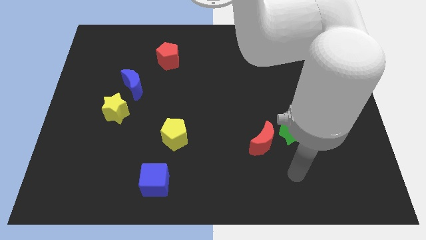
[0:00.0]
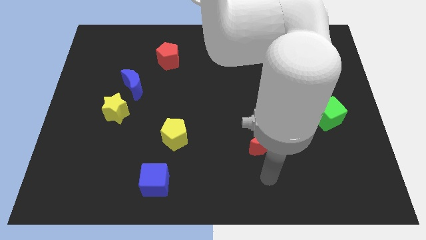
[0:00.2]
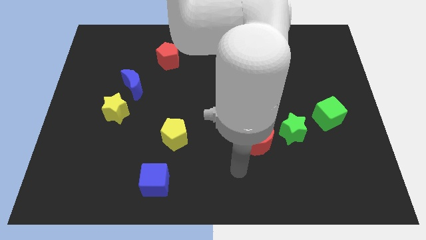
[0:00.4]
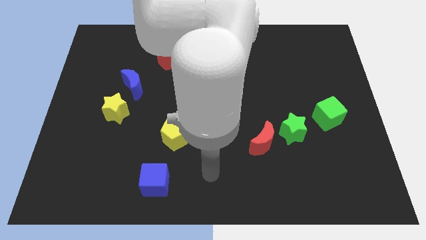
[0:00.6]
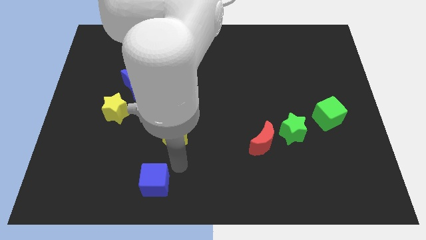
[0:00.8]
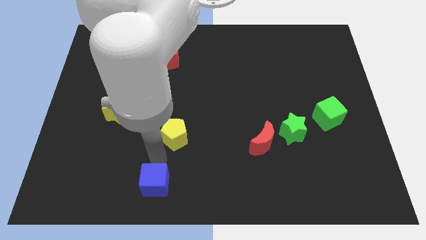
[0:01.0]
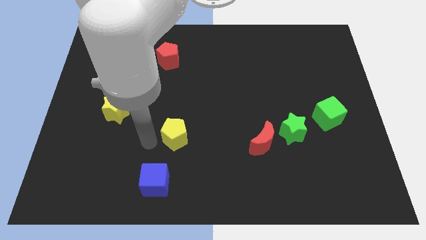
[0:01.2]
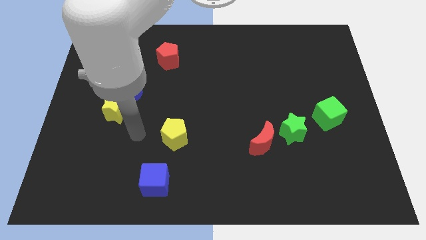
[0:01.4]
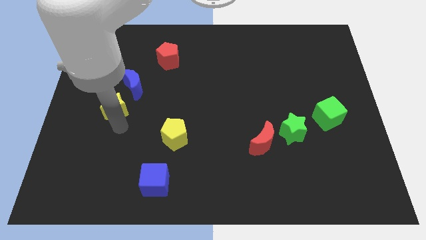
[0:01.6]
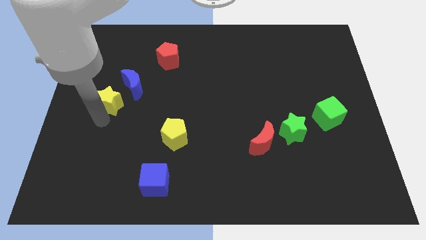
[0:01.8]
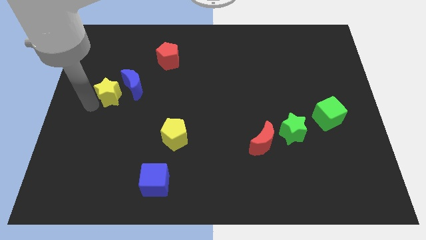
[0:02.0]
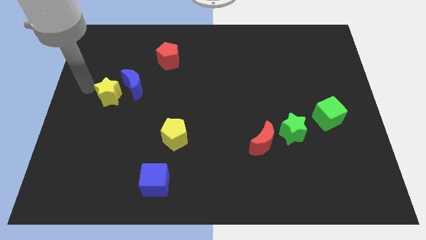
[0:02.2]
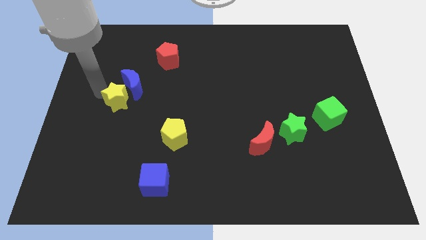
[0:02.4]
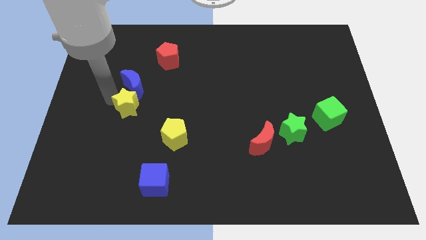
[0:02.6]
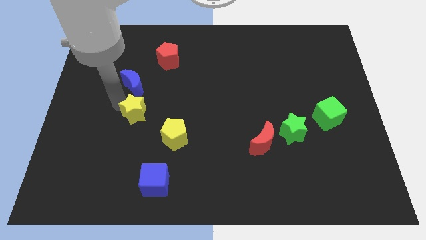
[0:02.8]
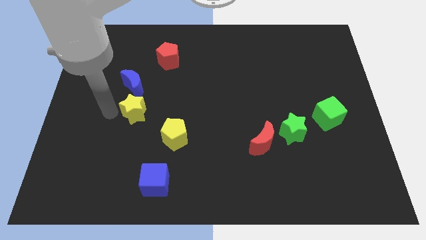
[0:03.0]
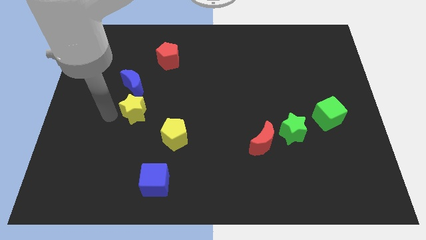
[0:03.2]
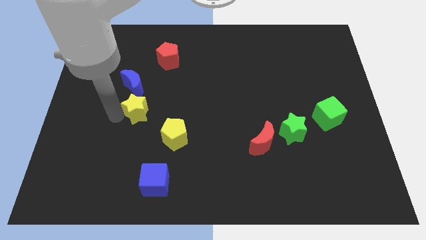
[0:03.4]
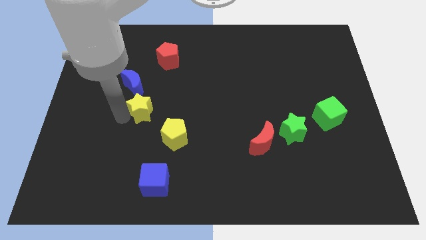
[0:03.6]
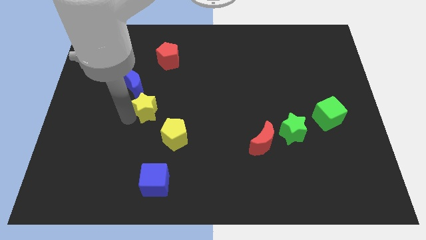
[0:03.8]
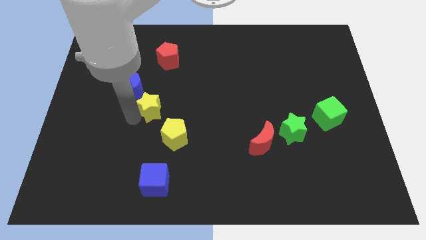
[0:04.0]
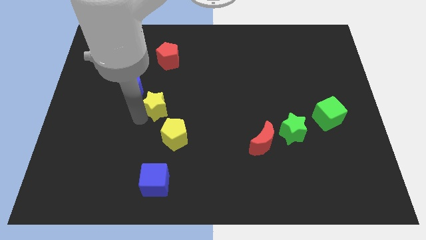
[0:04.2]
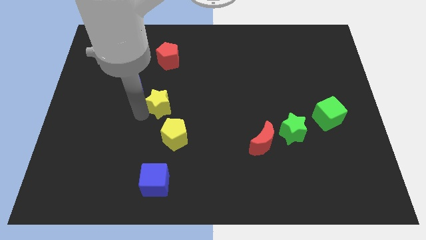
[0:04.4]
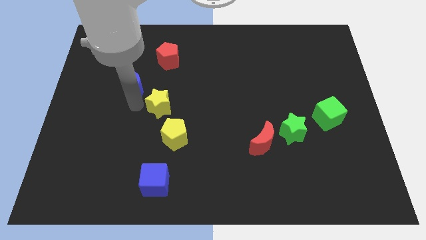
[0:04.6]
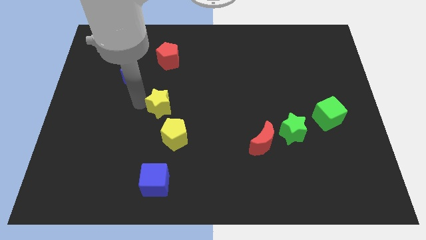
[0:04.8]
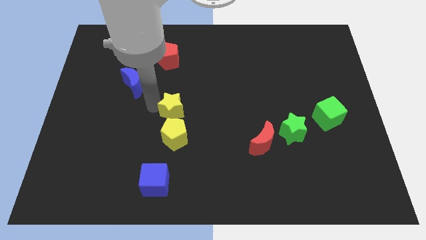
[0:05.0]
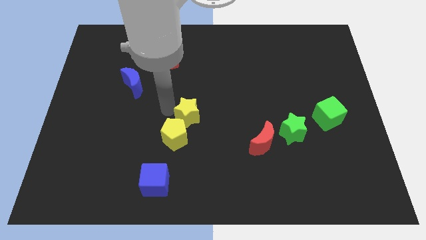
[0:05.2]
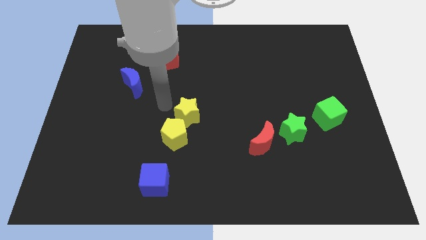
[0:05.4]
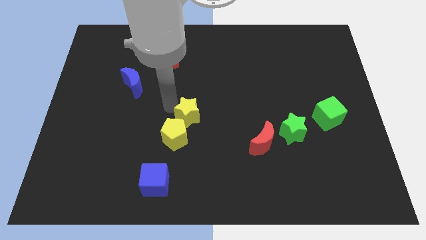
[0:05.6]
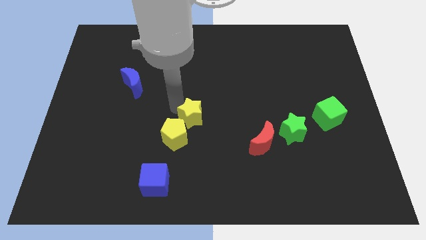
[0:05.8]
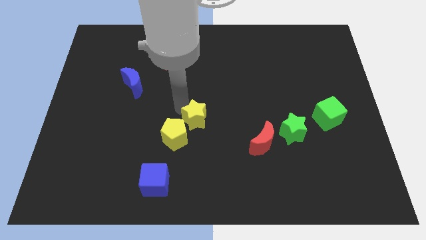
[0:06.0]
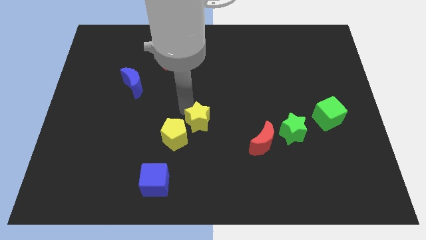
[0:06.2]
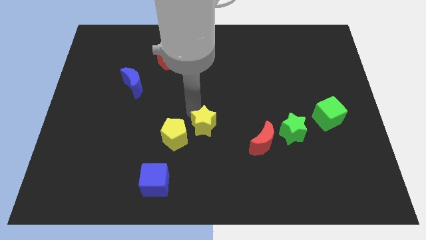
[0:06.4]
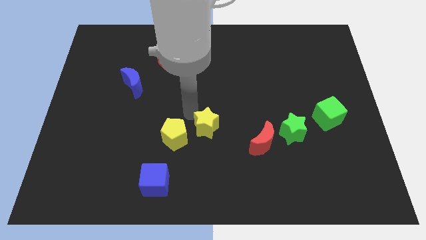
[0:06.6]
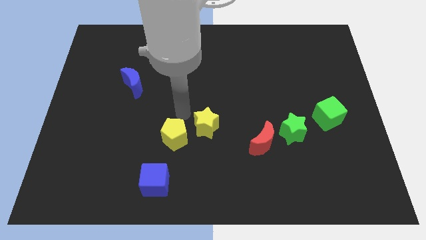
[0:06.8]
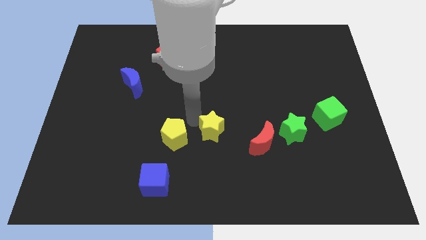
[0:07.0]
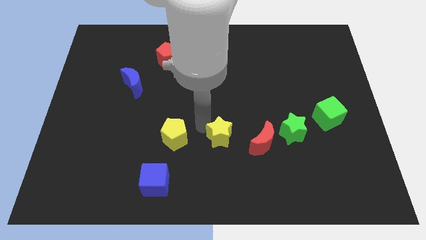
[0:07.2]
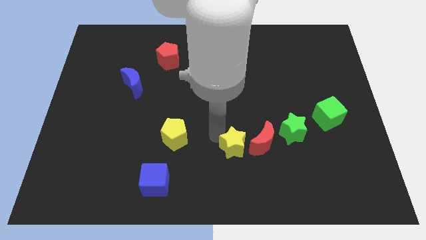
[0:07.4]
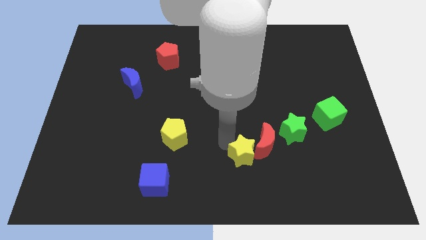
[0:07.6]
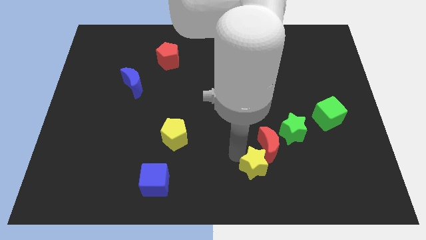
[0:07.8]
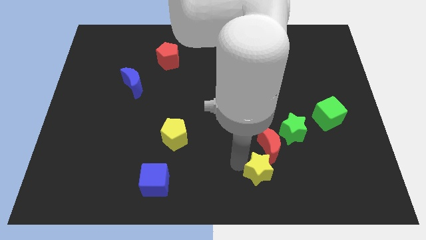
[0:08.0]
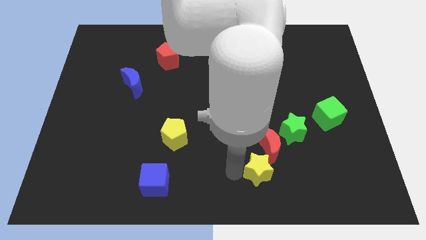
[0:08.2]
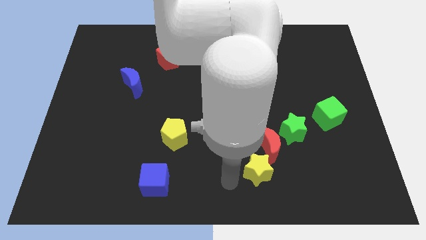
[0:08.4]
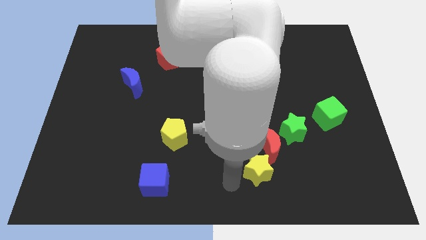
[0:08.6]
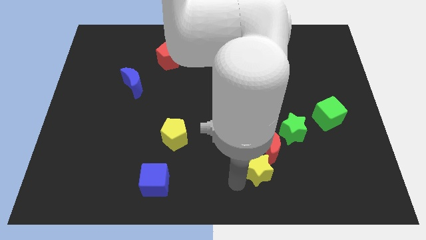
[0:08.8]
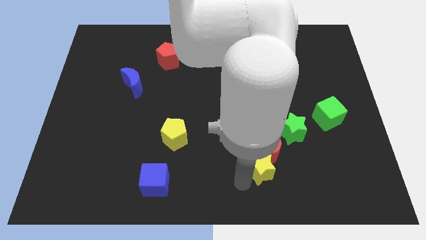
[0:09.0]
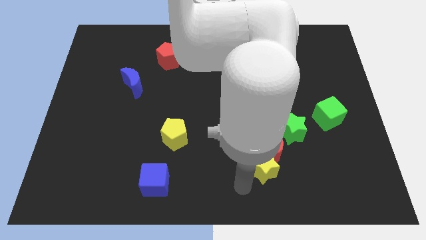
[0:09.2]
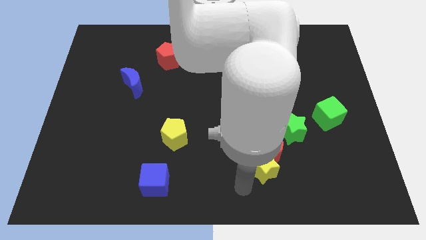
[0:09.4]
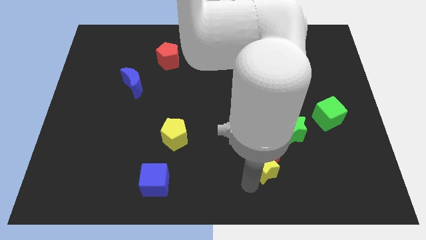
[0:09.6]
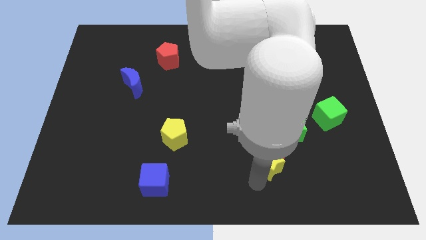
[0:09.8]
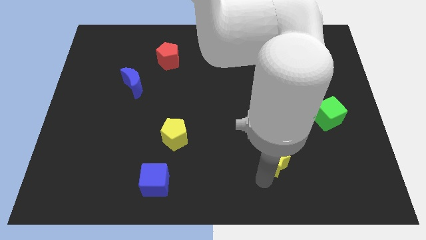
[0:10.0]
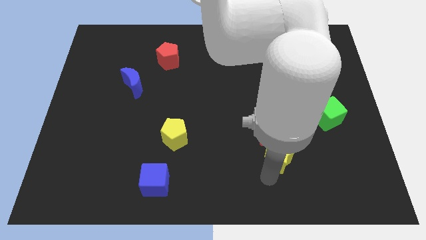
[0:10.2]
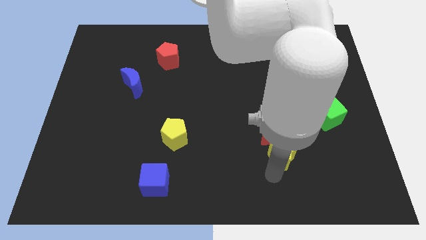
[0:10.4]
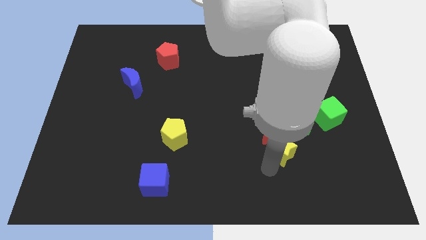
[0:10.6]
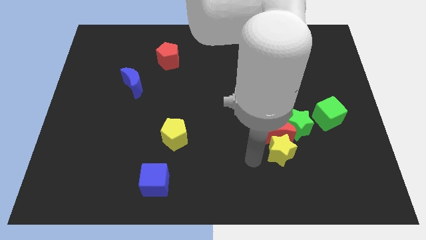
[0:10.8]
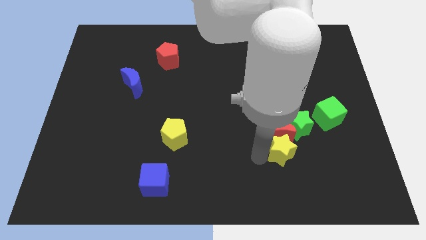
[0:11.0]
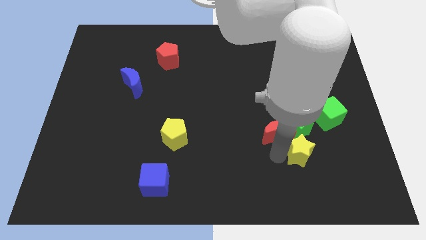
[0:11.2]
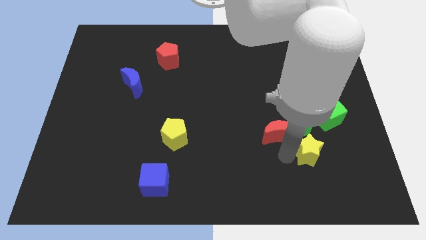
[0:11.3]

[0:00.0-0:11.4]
slide the yellow star diagonally down and to the right of the green star

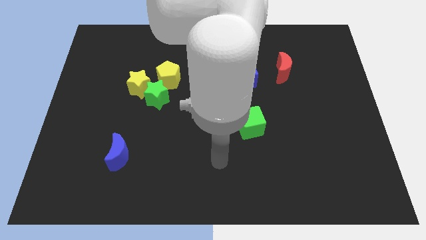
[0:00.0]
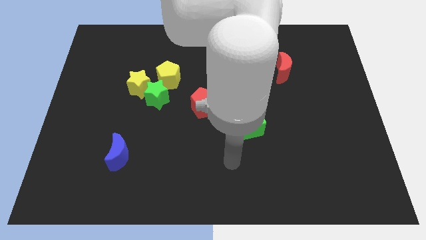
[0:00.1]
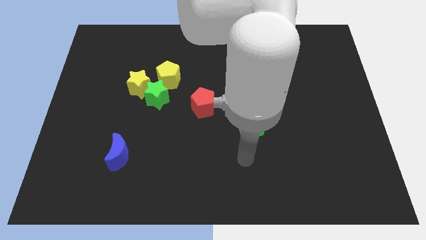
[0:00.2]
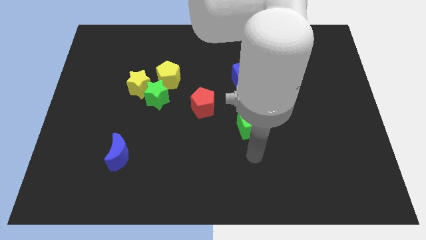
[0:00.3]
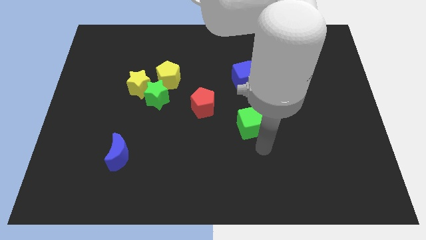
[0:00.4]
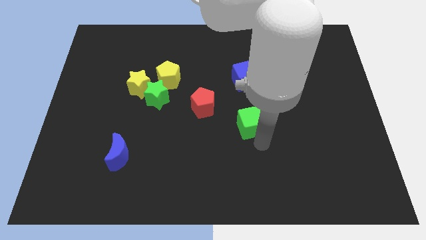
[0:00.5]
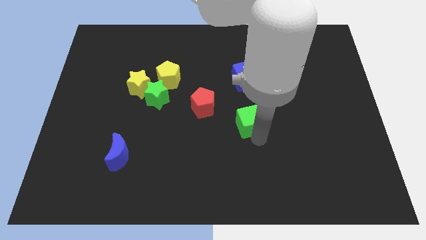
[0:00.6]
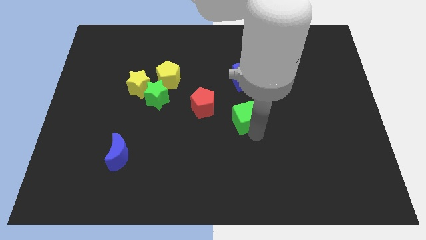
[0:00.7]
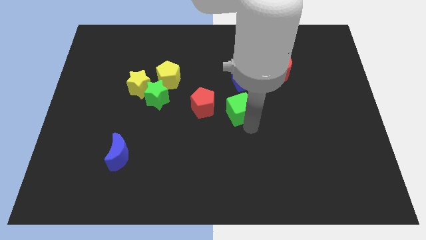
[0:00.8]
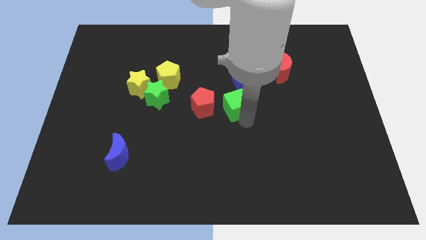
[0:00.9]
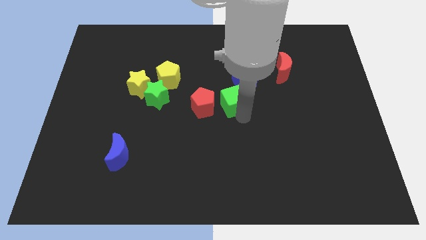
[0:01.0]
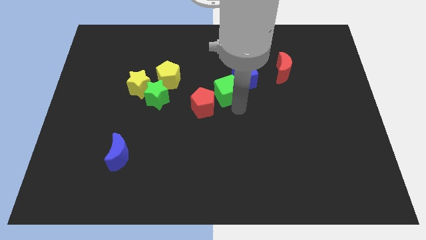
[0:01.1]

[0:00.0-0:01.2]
slide the green cube just left of the blue cube
